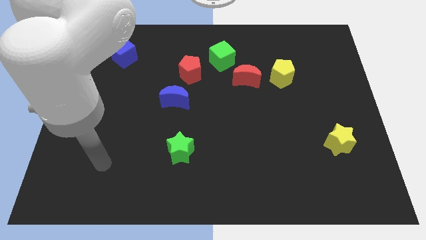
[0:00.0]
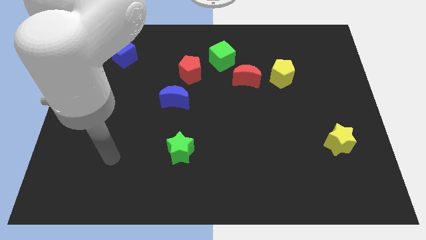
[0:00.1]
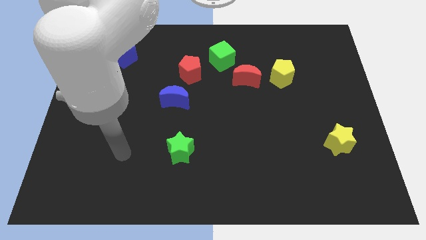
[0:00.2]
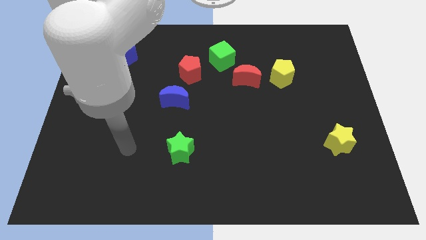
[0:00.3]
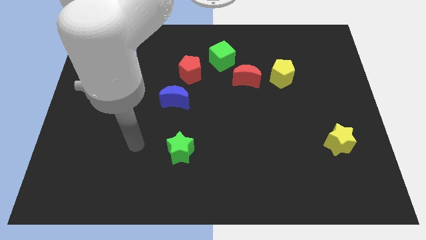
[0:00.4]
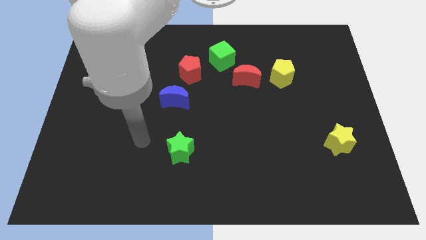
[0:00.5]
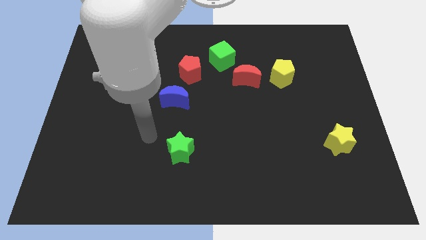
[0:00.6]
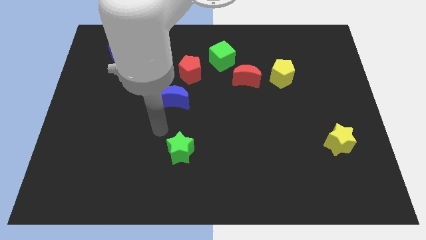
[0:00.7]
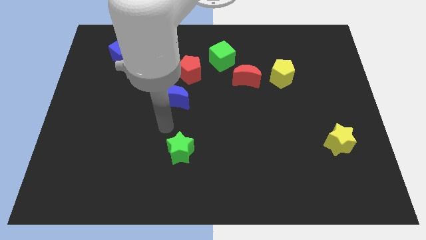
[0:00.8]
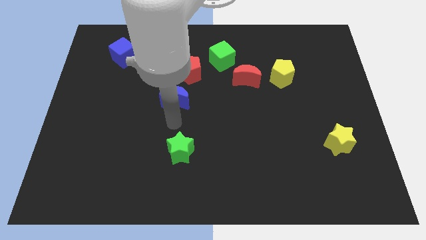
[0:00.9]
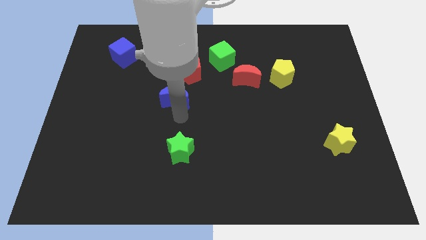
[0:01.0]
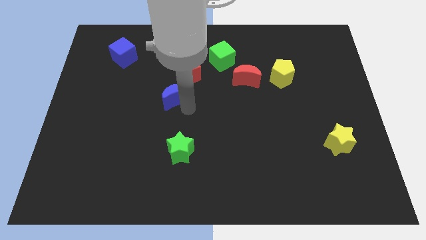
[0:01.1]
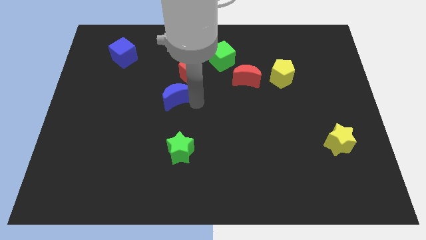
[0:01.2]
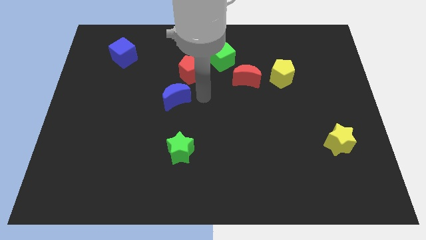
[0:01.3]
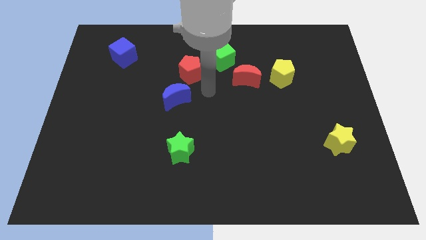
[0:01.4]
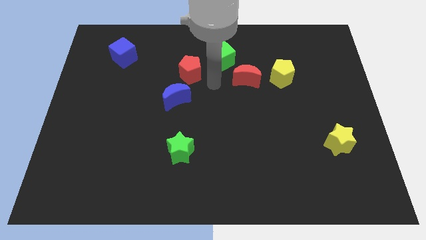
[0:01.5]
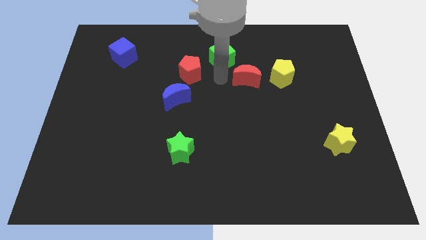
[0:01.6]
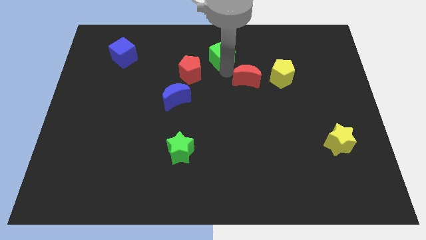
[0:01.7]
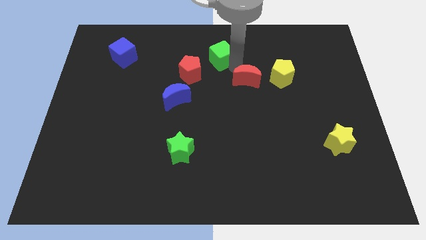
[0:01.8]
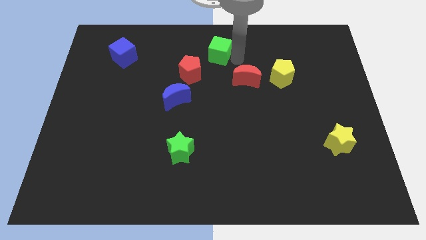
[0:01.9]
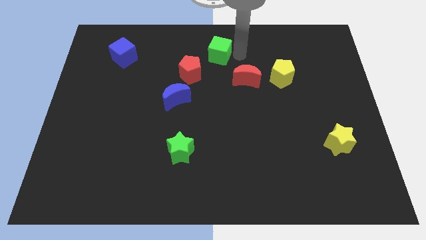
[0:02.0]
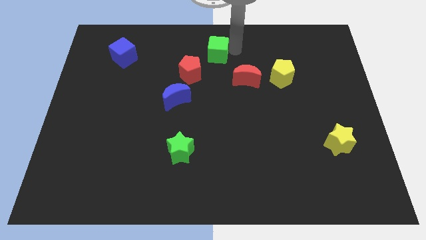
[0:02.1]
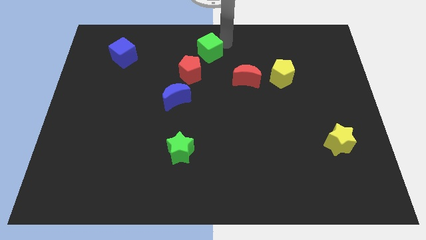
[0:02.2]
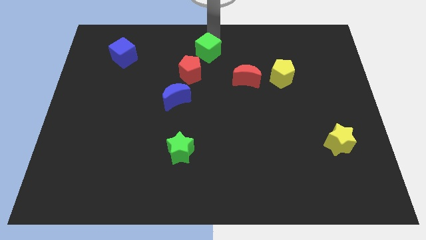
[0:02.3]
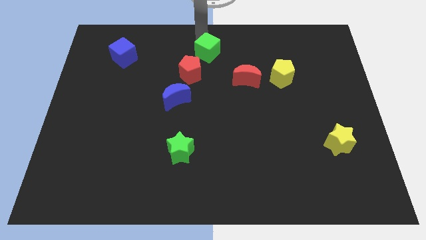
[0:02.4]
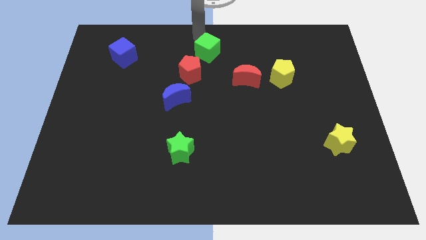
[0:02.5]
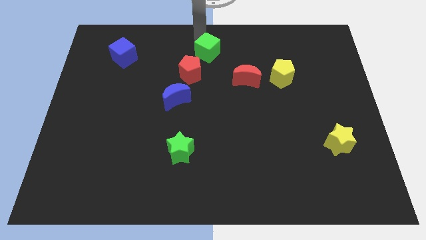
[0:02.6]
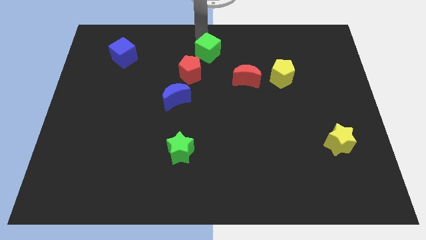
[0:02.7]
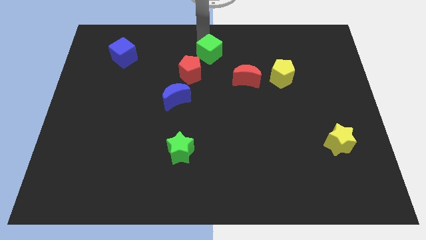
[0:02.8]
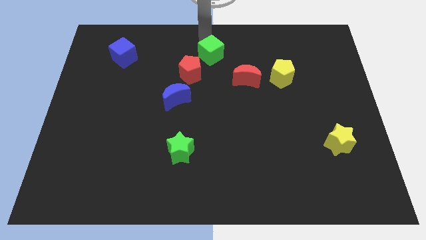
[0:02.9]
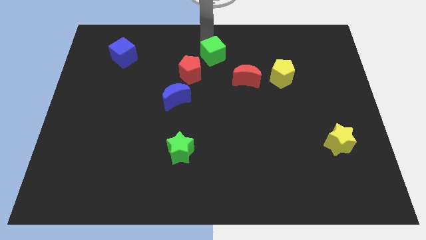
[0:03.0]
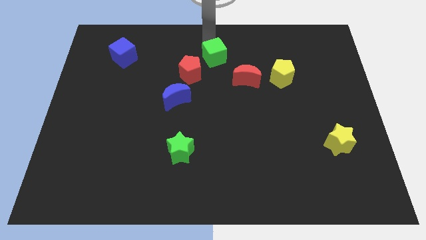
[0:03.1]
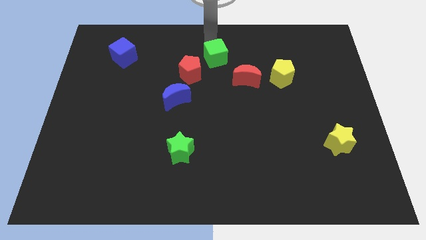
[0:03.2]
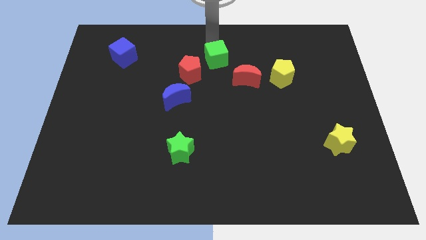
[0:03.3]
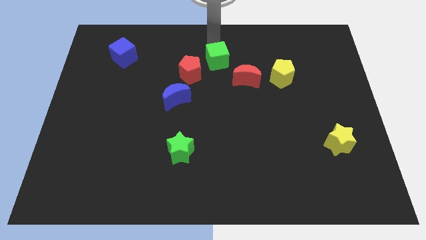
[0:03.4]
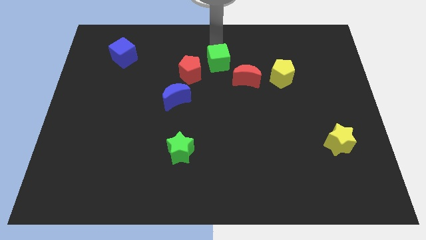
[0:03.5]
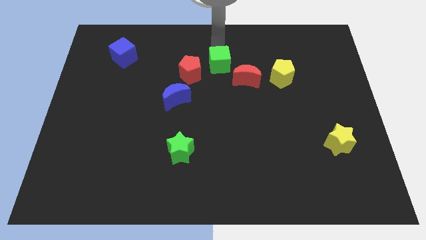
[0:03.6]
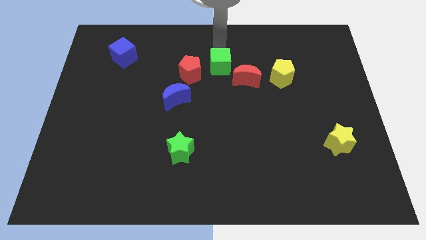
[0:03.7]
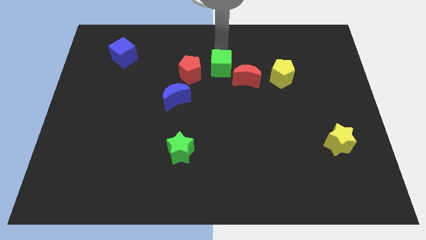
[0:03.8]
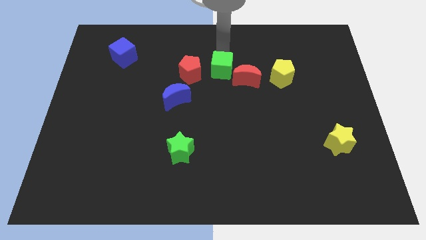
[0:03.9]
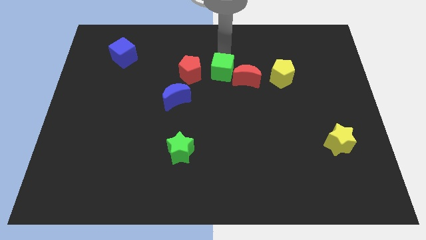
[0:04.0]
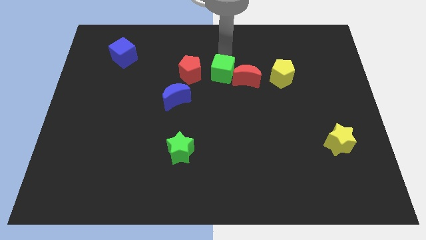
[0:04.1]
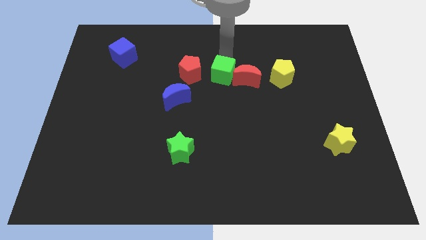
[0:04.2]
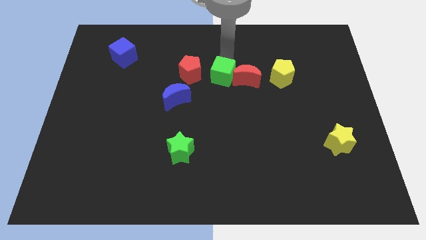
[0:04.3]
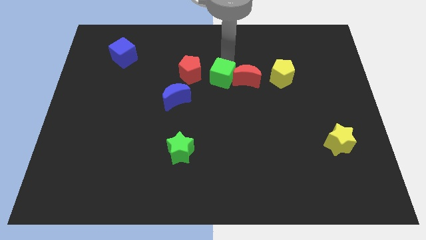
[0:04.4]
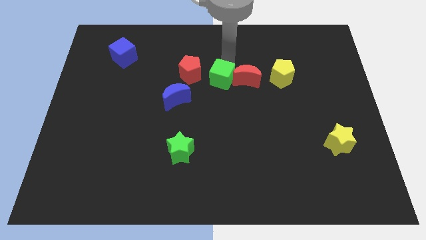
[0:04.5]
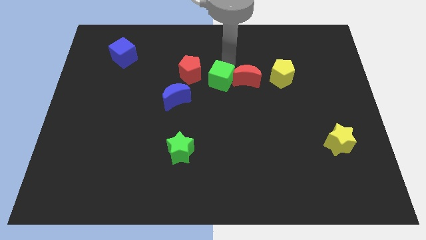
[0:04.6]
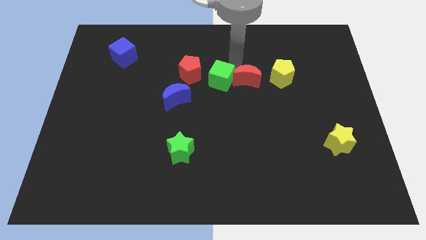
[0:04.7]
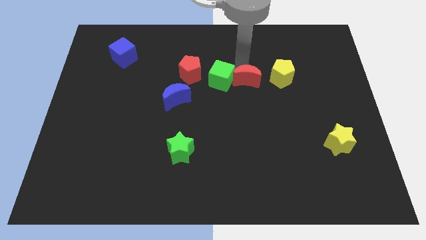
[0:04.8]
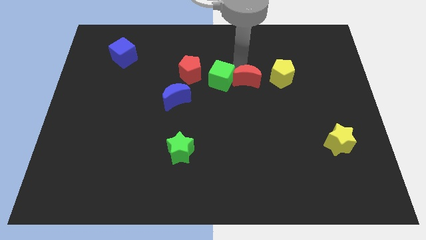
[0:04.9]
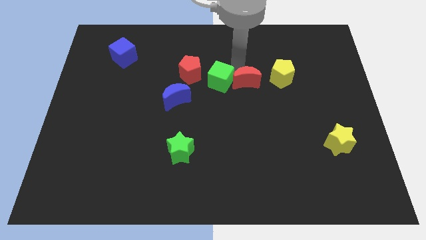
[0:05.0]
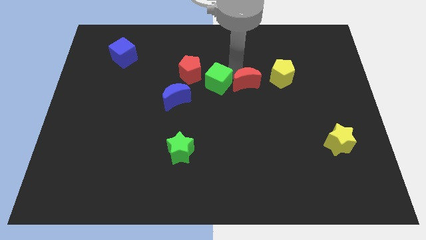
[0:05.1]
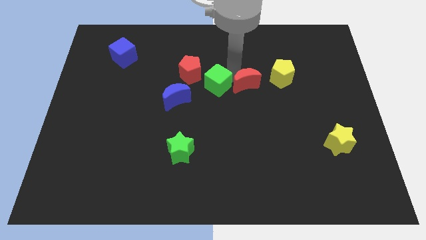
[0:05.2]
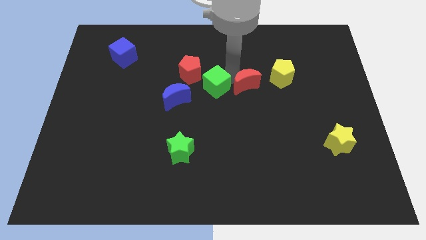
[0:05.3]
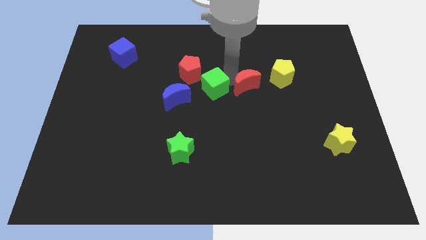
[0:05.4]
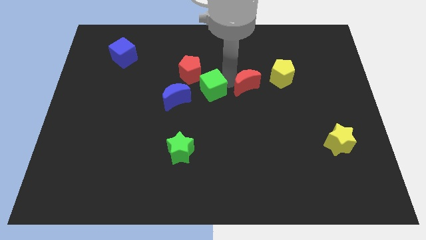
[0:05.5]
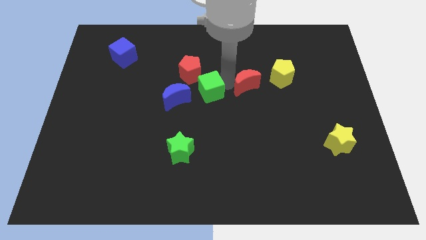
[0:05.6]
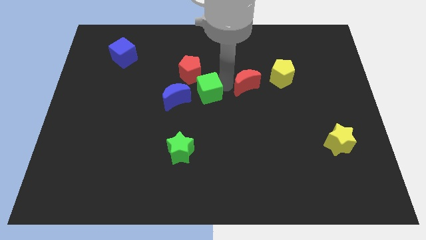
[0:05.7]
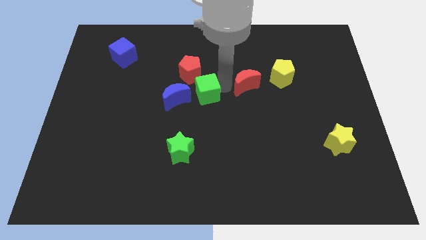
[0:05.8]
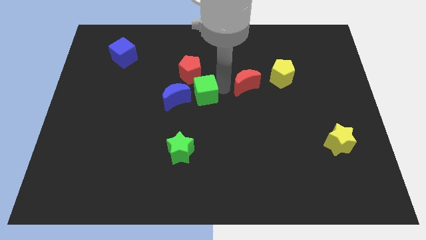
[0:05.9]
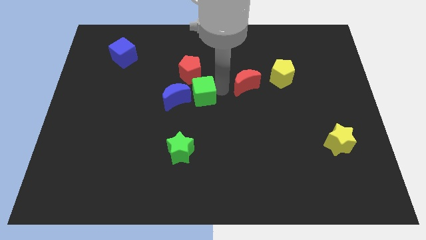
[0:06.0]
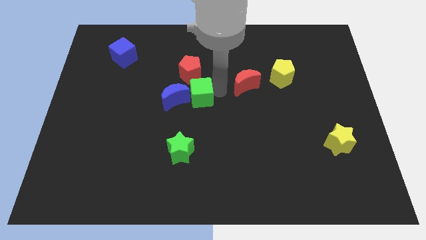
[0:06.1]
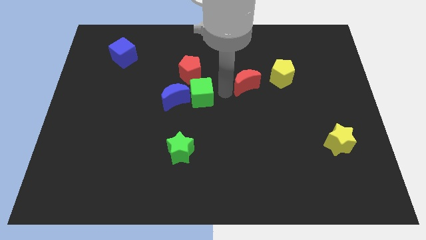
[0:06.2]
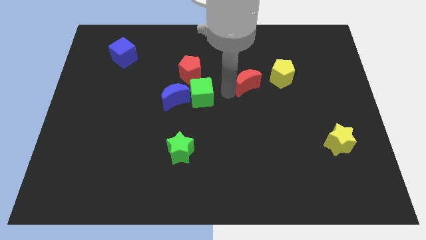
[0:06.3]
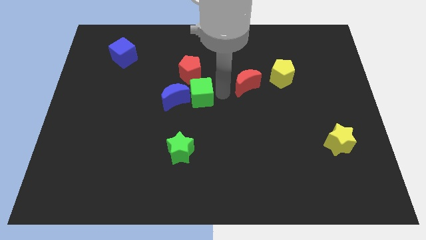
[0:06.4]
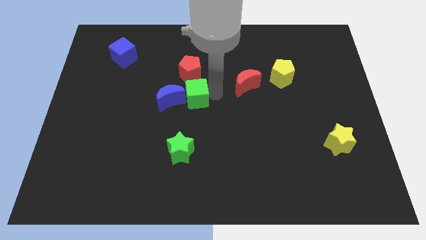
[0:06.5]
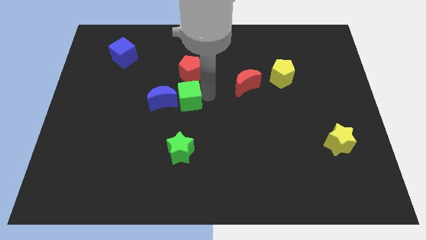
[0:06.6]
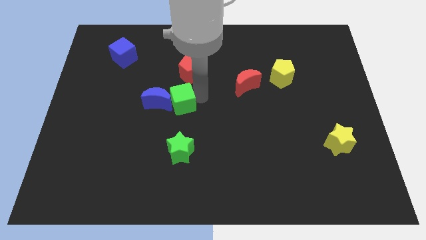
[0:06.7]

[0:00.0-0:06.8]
move the green cube next to the blue moon

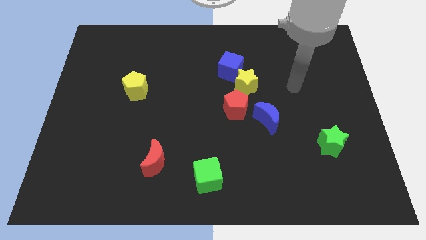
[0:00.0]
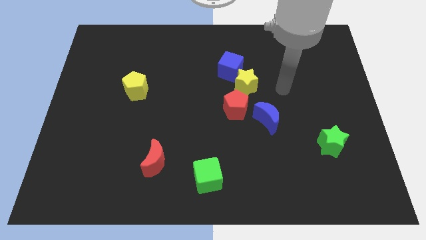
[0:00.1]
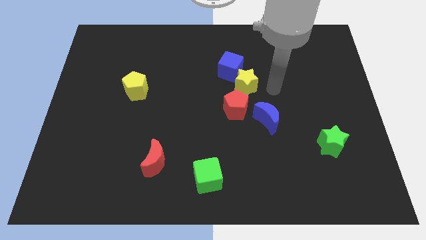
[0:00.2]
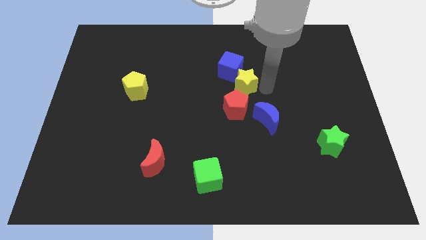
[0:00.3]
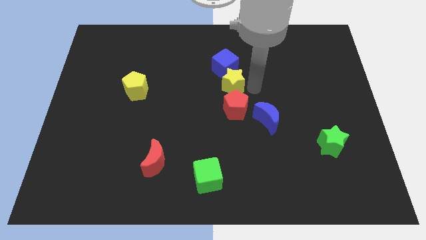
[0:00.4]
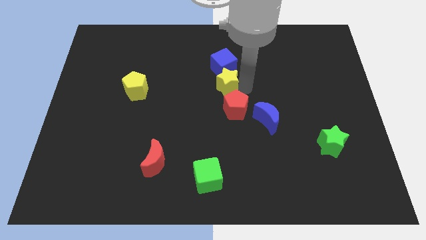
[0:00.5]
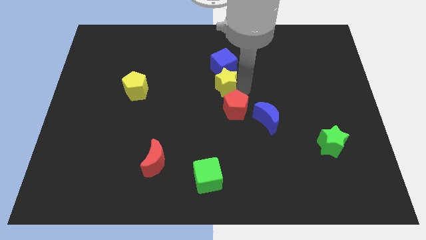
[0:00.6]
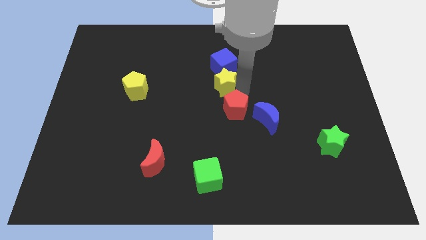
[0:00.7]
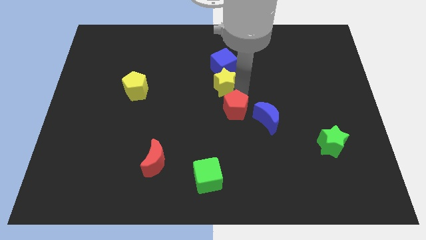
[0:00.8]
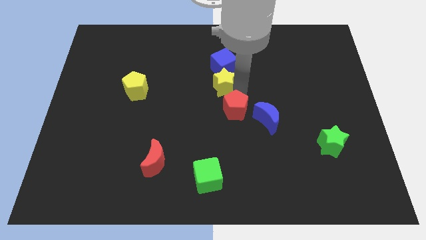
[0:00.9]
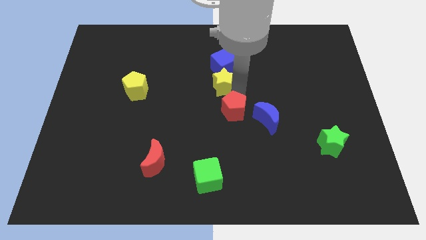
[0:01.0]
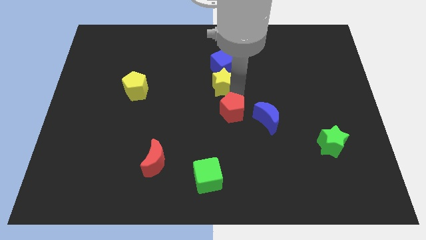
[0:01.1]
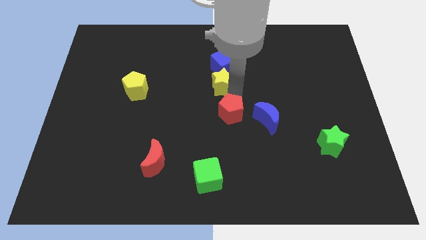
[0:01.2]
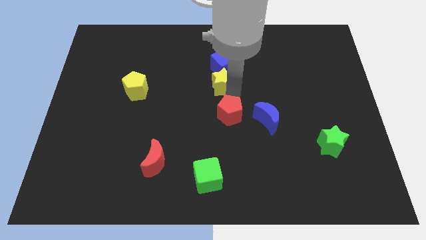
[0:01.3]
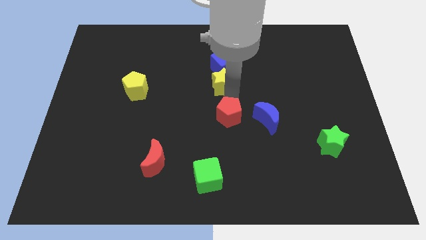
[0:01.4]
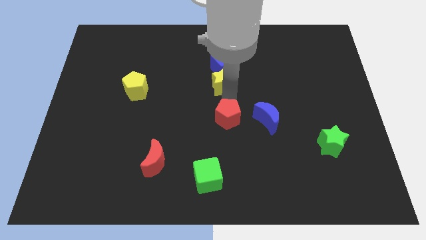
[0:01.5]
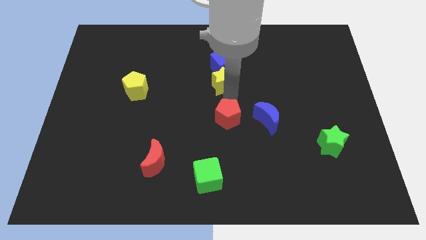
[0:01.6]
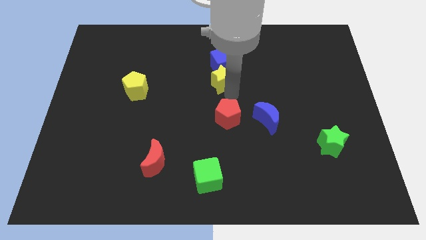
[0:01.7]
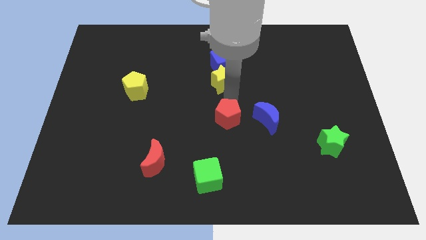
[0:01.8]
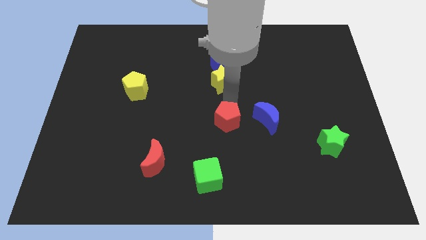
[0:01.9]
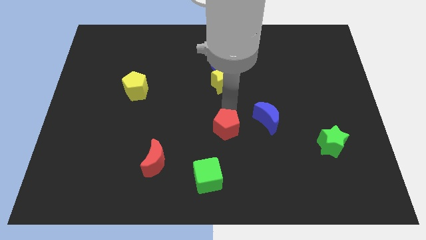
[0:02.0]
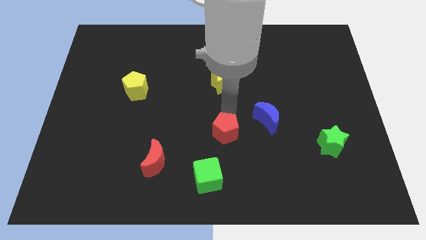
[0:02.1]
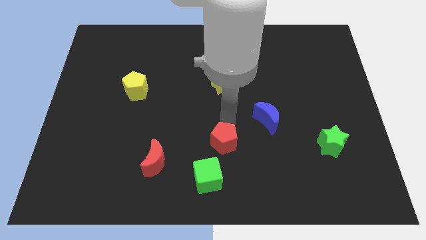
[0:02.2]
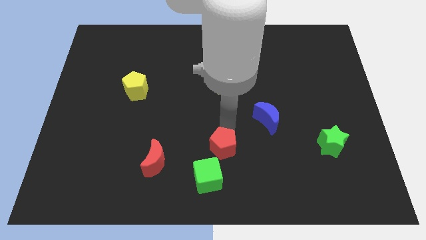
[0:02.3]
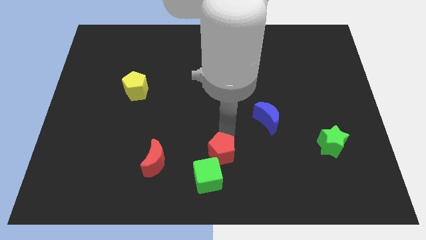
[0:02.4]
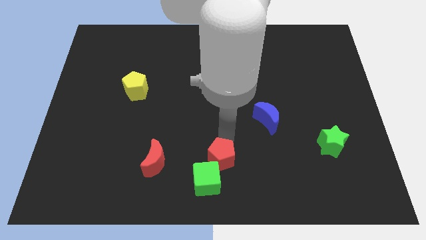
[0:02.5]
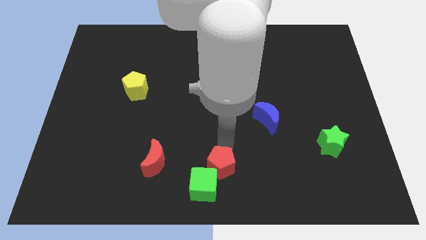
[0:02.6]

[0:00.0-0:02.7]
slide the red pentagon towards the green cube
